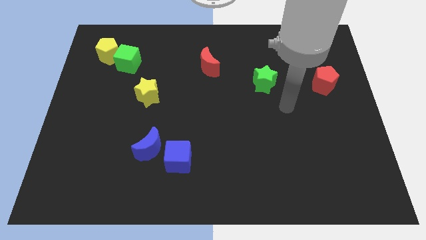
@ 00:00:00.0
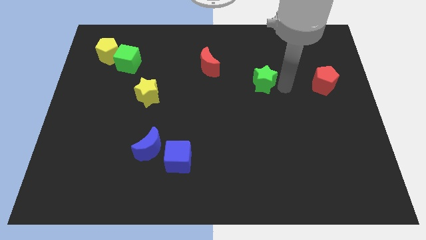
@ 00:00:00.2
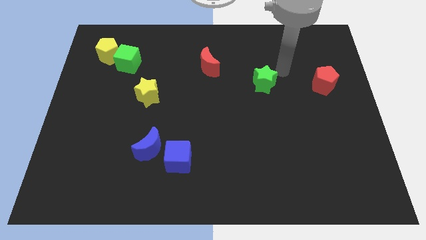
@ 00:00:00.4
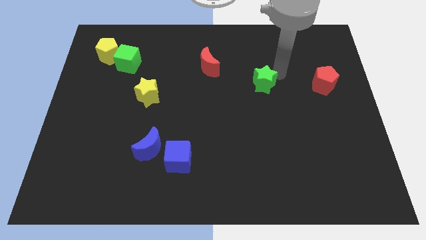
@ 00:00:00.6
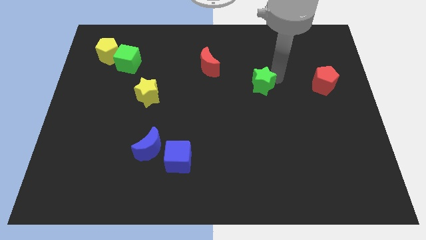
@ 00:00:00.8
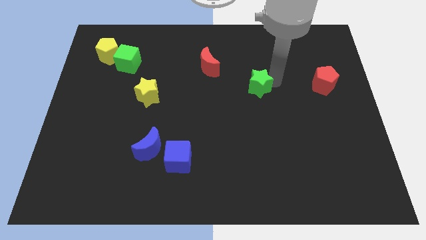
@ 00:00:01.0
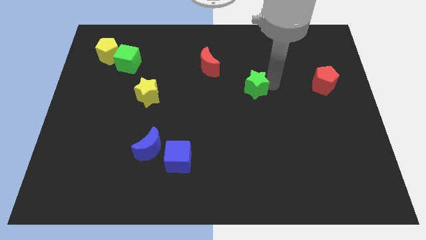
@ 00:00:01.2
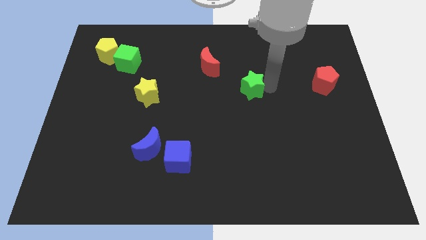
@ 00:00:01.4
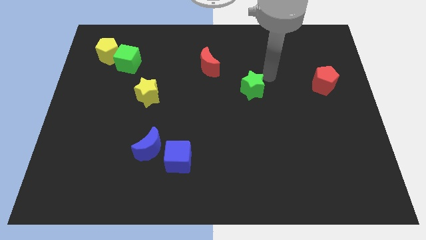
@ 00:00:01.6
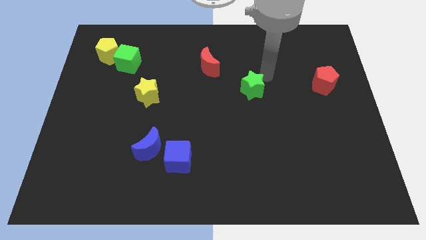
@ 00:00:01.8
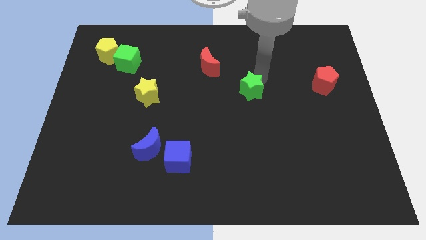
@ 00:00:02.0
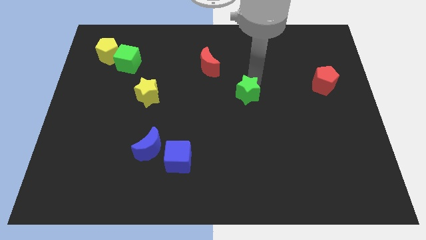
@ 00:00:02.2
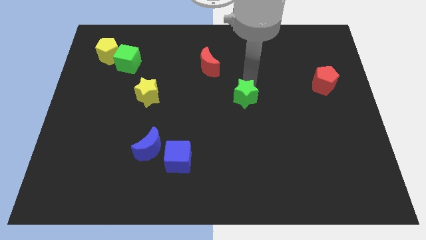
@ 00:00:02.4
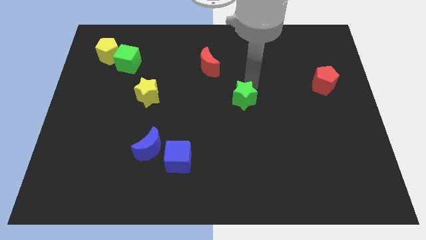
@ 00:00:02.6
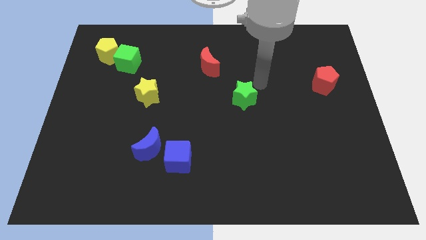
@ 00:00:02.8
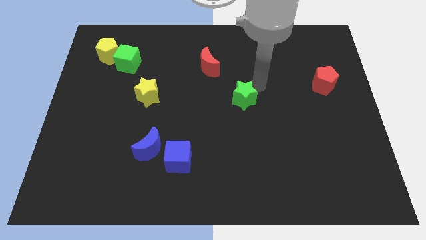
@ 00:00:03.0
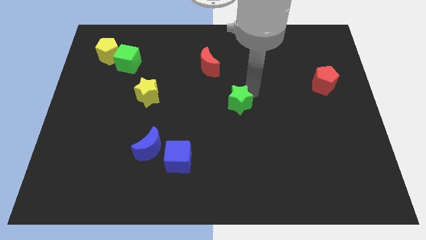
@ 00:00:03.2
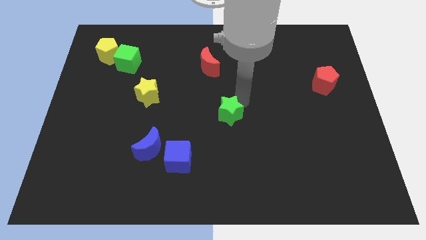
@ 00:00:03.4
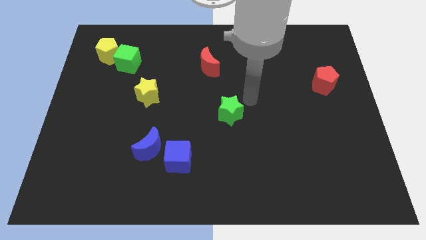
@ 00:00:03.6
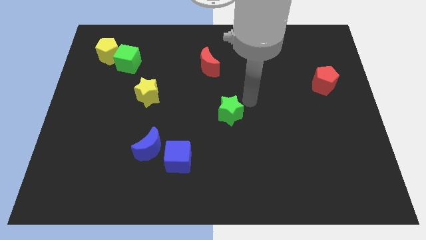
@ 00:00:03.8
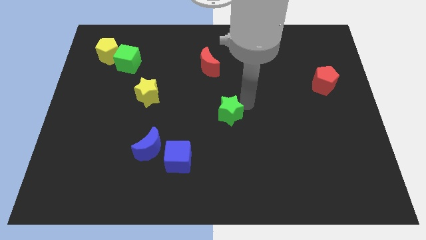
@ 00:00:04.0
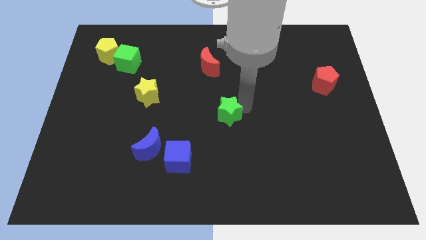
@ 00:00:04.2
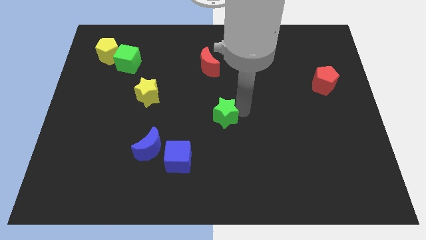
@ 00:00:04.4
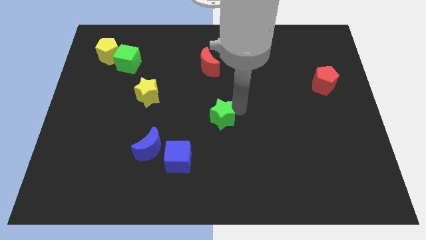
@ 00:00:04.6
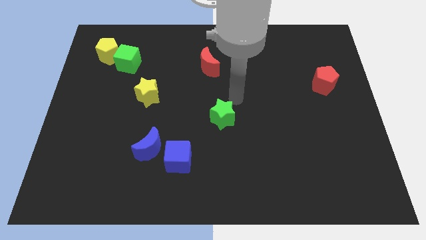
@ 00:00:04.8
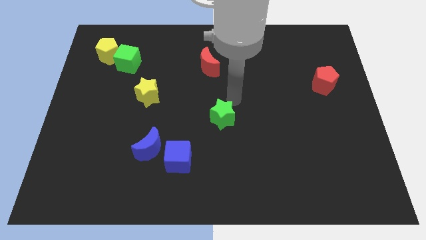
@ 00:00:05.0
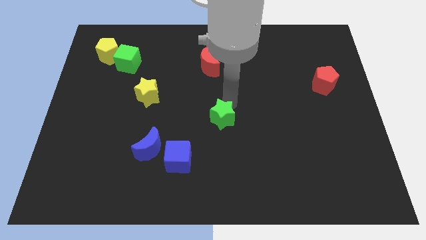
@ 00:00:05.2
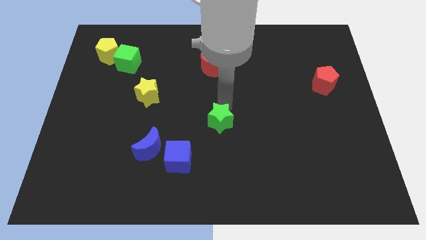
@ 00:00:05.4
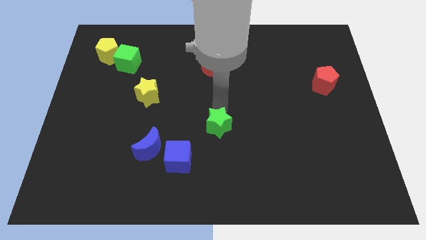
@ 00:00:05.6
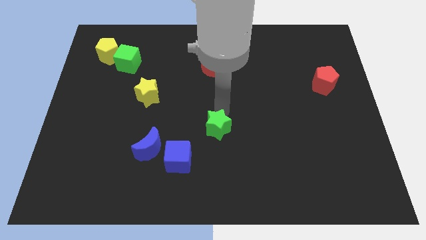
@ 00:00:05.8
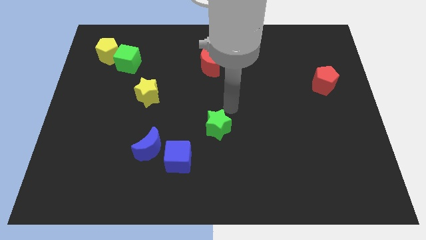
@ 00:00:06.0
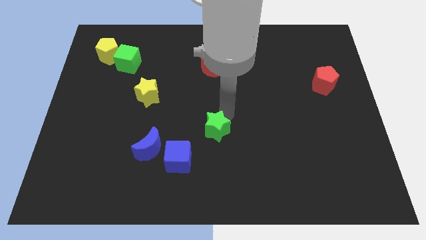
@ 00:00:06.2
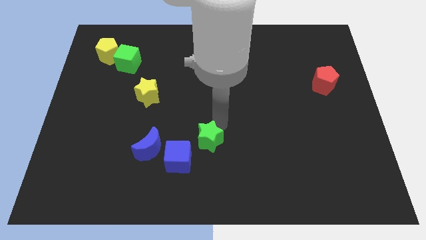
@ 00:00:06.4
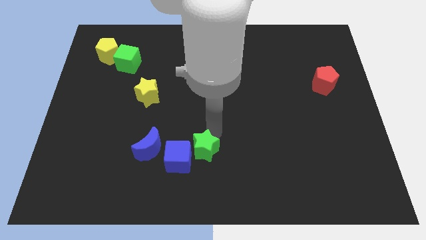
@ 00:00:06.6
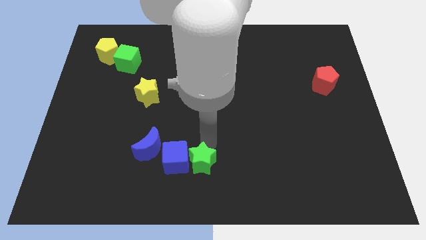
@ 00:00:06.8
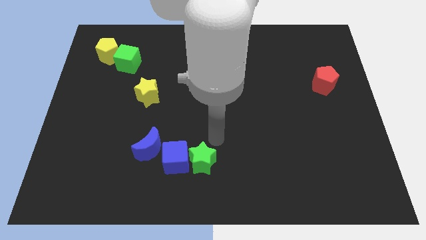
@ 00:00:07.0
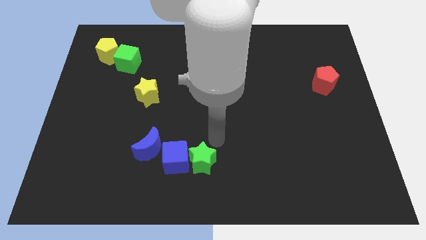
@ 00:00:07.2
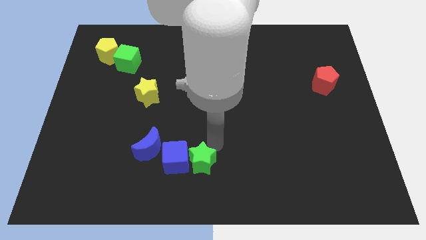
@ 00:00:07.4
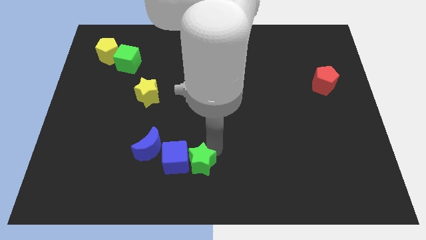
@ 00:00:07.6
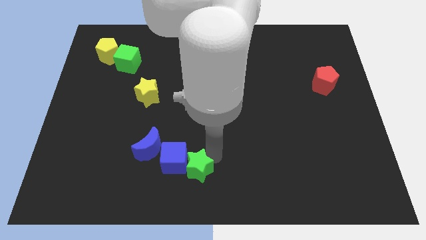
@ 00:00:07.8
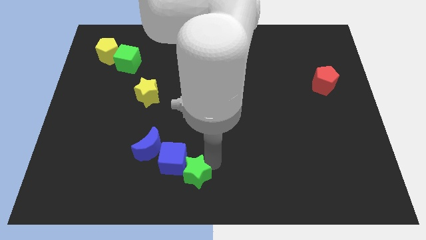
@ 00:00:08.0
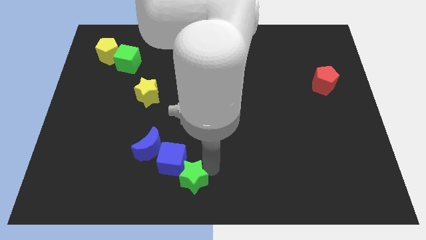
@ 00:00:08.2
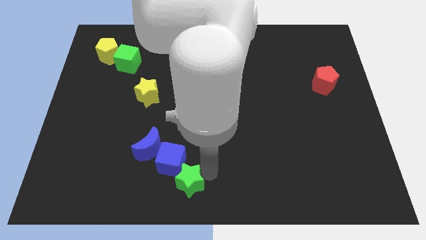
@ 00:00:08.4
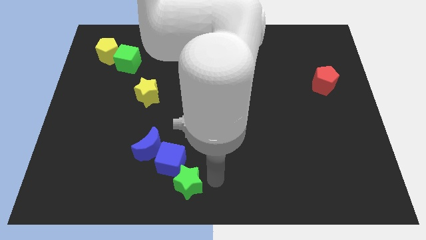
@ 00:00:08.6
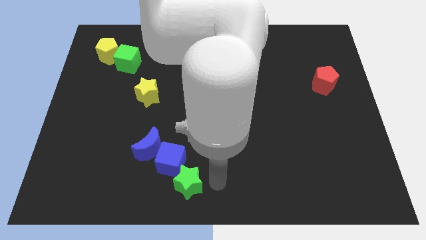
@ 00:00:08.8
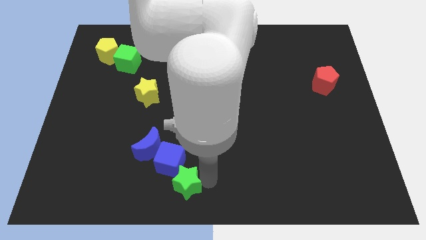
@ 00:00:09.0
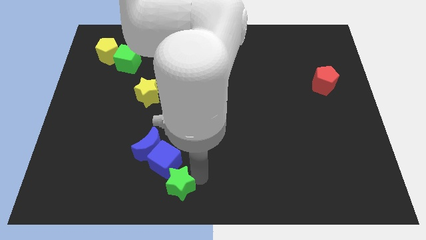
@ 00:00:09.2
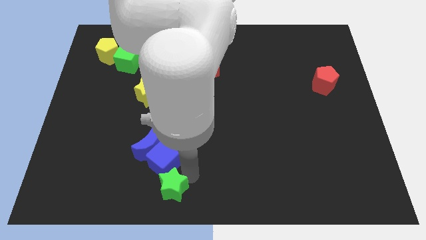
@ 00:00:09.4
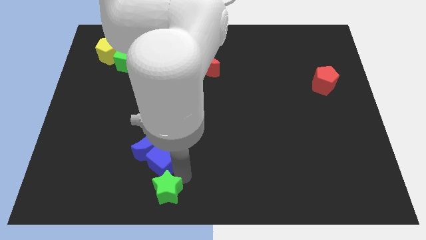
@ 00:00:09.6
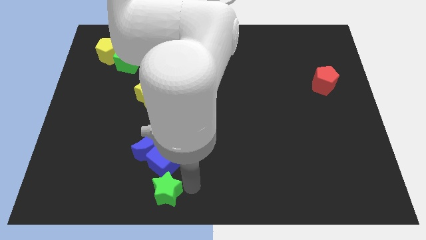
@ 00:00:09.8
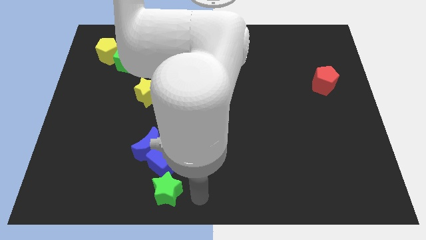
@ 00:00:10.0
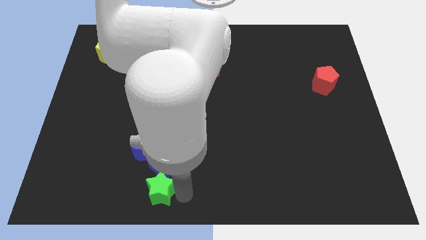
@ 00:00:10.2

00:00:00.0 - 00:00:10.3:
put the green star to the bottom left of the blue cube

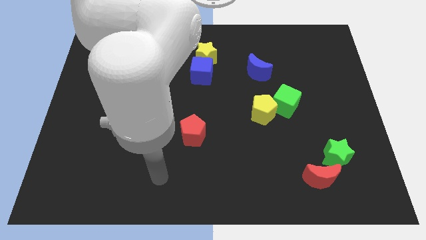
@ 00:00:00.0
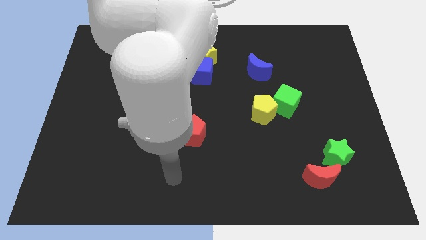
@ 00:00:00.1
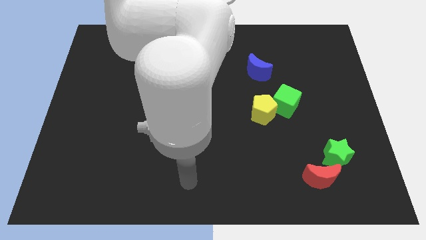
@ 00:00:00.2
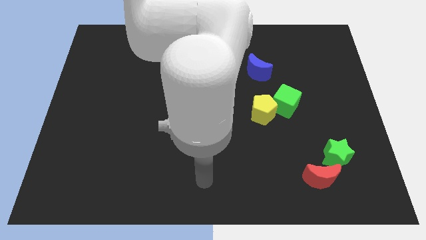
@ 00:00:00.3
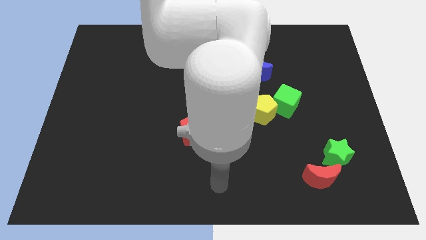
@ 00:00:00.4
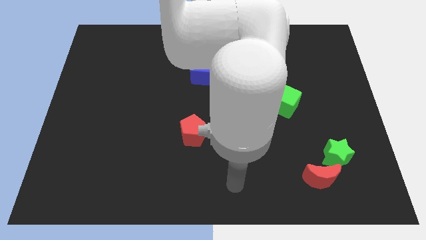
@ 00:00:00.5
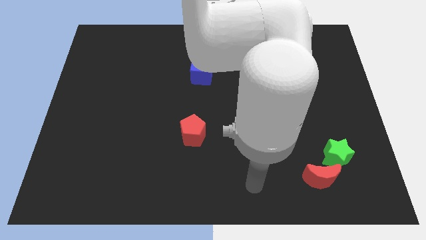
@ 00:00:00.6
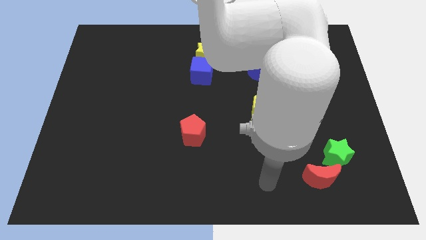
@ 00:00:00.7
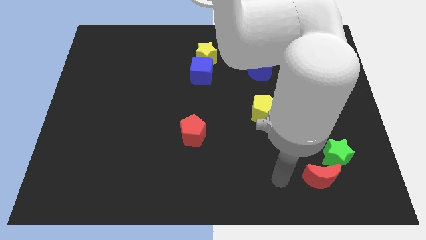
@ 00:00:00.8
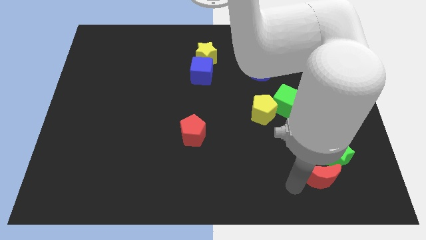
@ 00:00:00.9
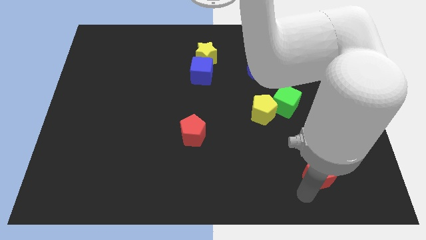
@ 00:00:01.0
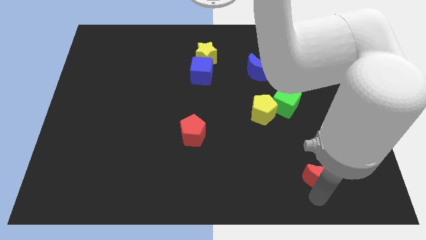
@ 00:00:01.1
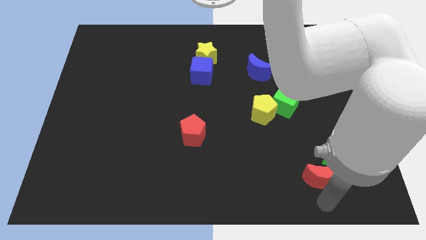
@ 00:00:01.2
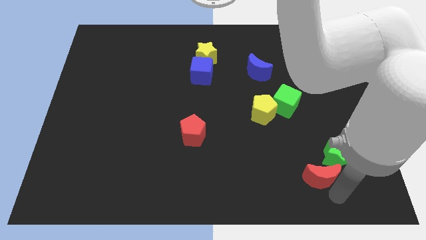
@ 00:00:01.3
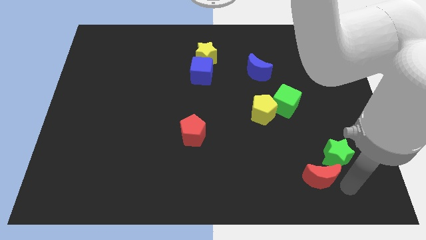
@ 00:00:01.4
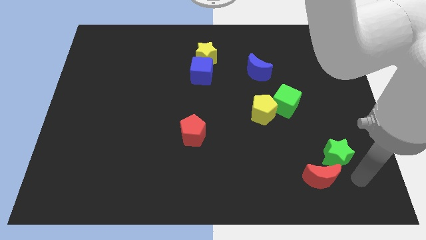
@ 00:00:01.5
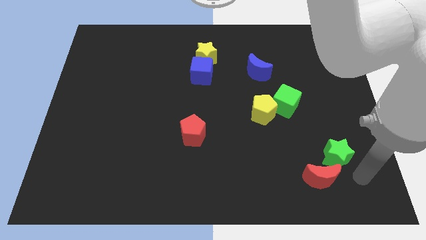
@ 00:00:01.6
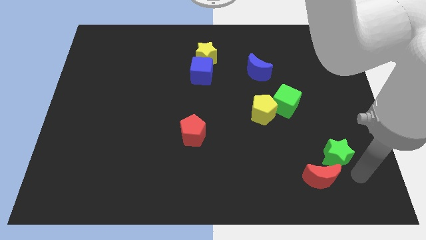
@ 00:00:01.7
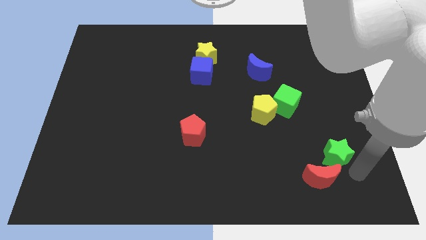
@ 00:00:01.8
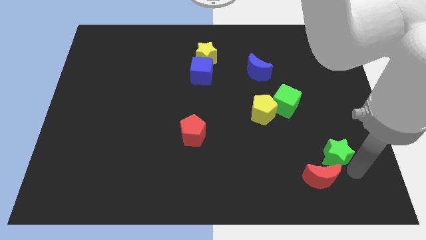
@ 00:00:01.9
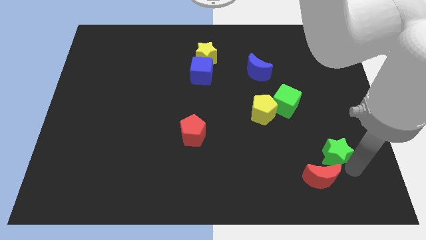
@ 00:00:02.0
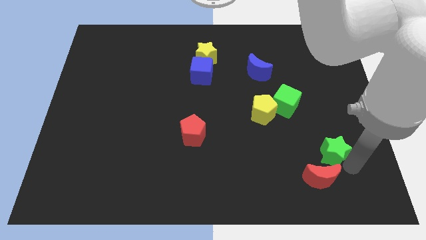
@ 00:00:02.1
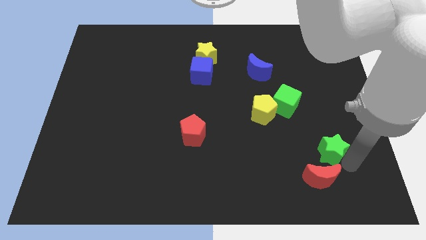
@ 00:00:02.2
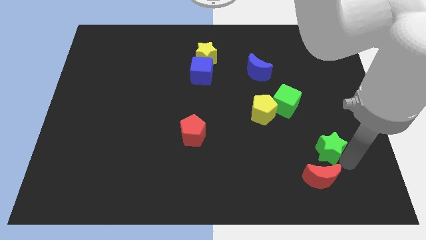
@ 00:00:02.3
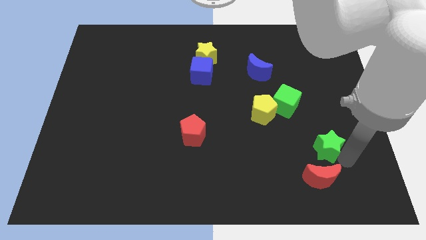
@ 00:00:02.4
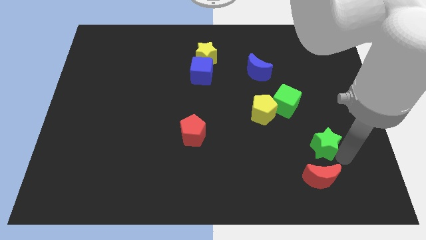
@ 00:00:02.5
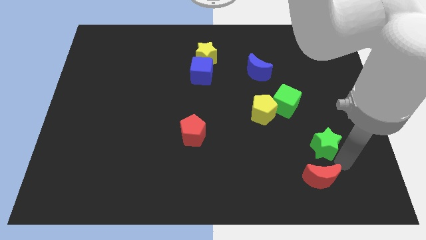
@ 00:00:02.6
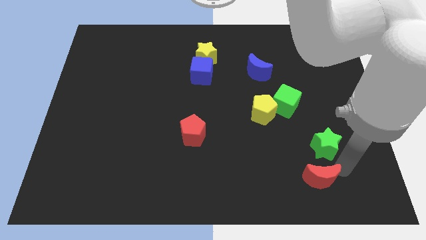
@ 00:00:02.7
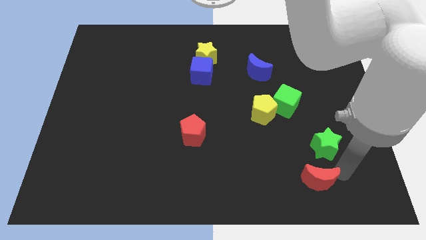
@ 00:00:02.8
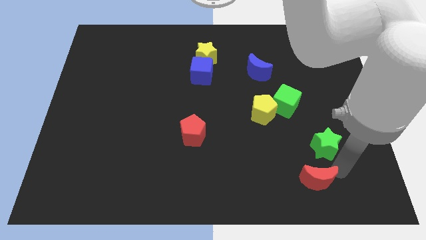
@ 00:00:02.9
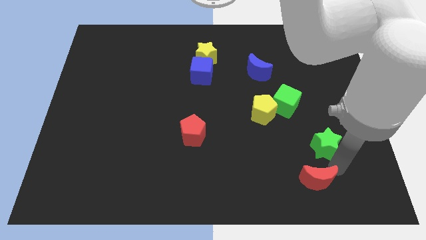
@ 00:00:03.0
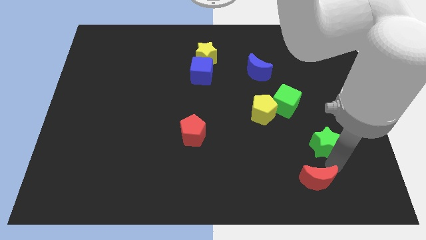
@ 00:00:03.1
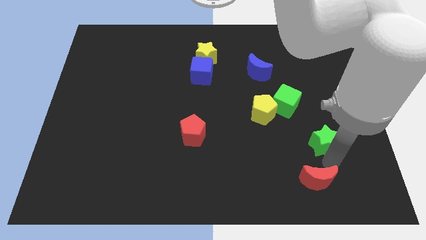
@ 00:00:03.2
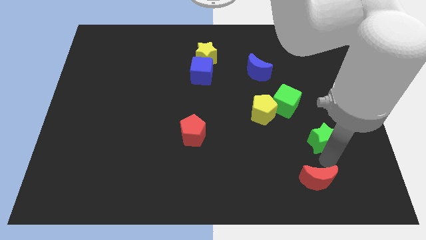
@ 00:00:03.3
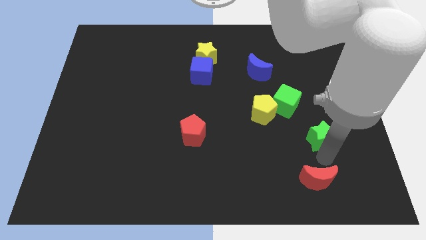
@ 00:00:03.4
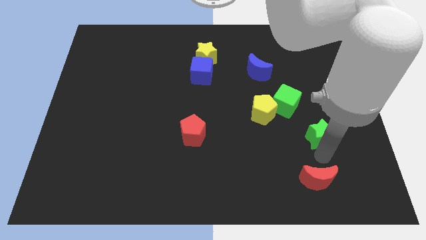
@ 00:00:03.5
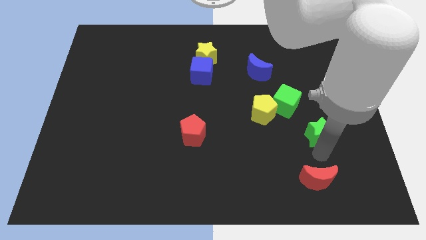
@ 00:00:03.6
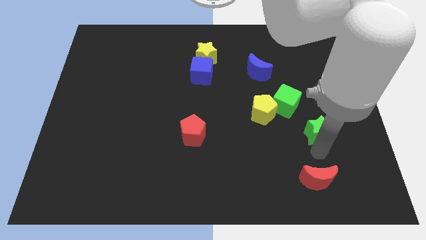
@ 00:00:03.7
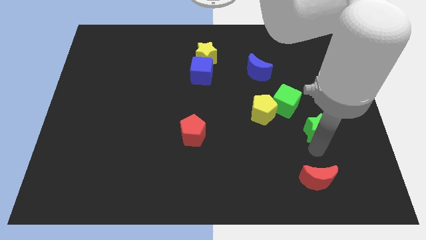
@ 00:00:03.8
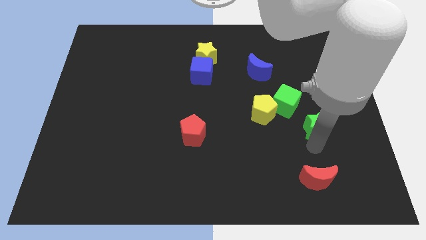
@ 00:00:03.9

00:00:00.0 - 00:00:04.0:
put the green star to the right of the yellow pentagon
